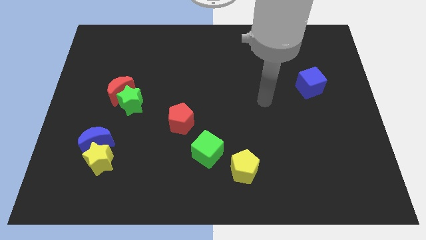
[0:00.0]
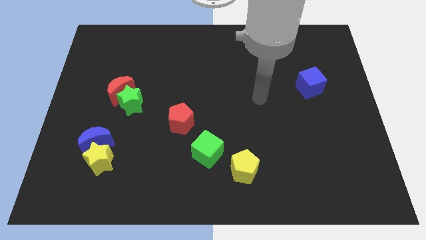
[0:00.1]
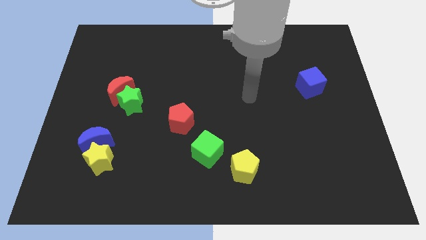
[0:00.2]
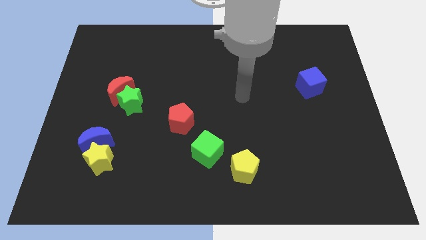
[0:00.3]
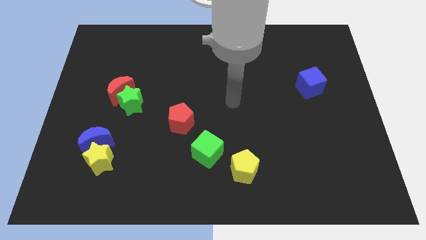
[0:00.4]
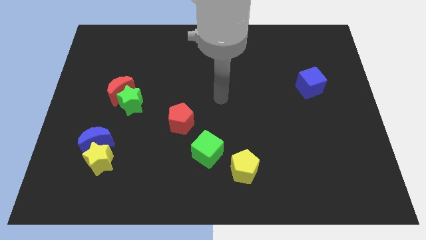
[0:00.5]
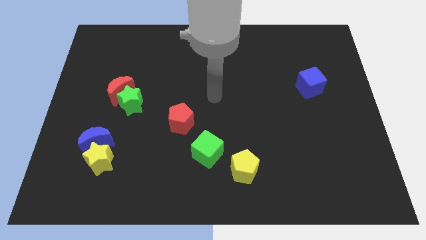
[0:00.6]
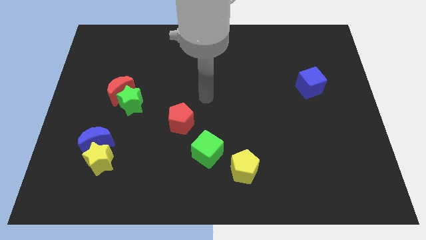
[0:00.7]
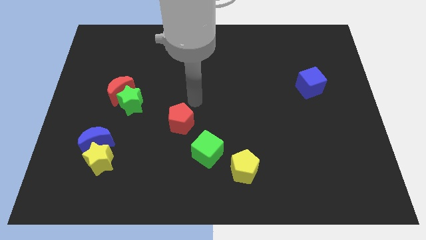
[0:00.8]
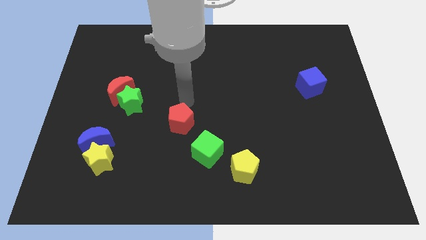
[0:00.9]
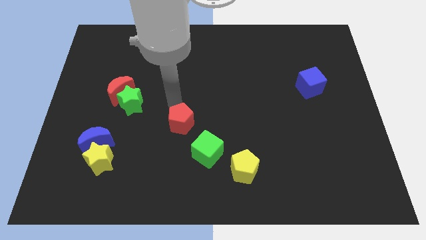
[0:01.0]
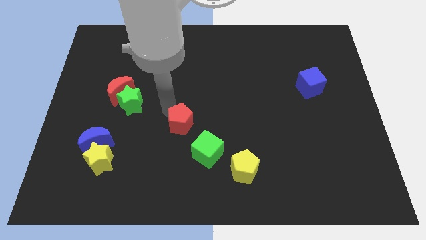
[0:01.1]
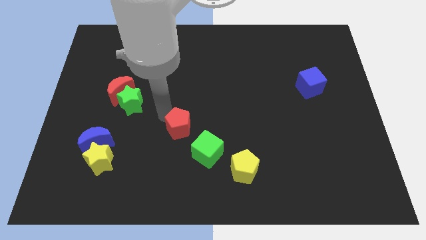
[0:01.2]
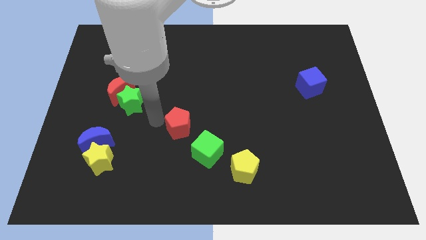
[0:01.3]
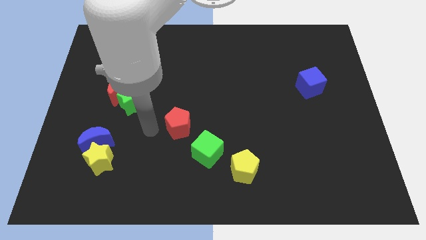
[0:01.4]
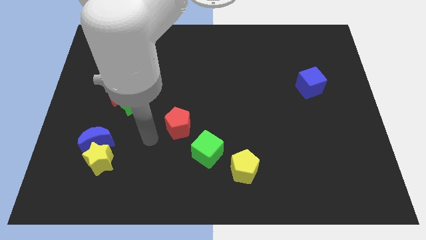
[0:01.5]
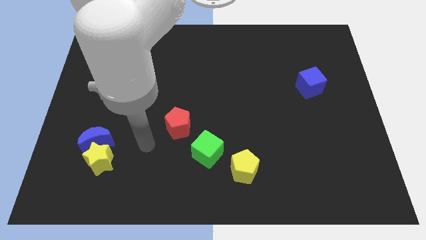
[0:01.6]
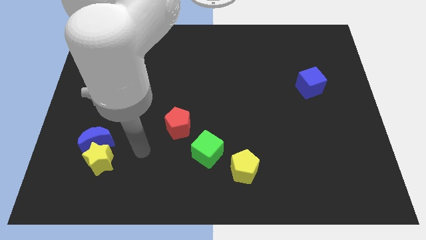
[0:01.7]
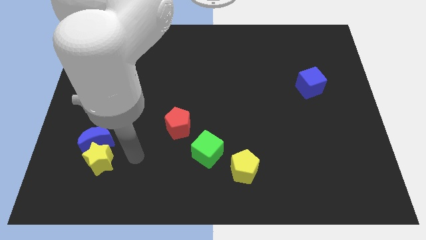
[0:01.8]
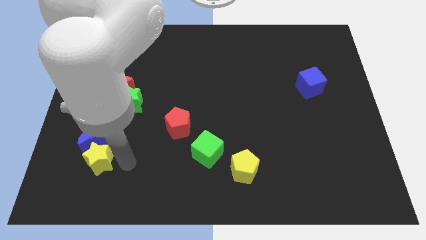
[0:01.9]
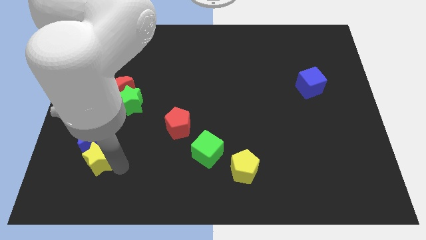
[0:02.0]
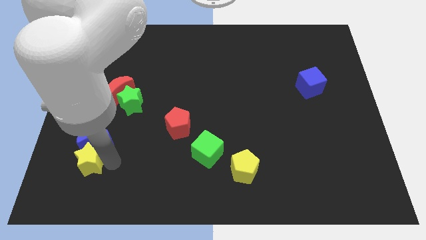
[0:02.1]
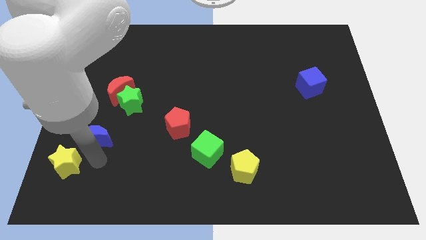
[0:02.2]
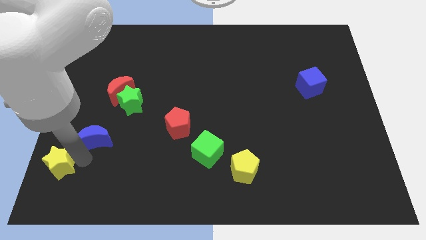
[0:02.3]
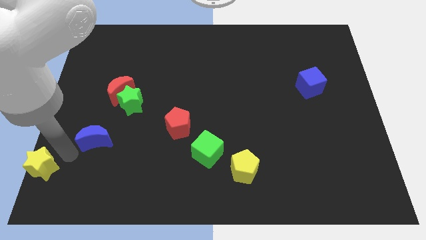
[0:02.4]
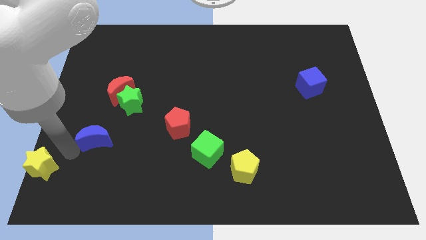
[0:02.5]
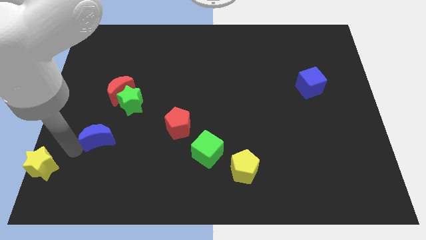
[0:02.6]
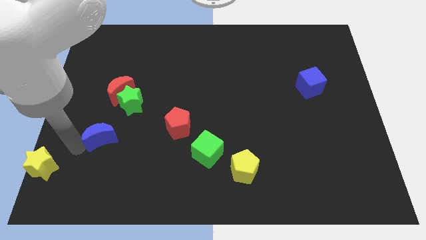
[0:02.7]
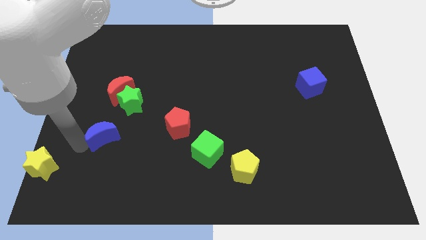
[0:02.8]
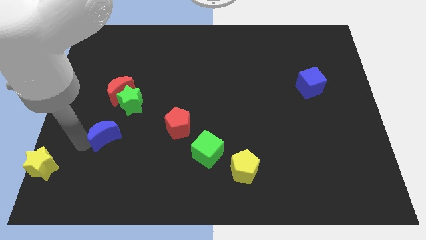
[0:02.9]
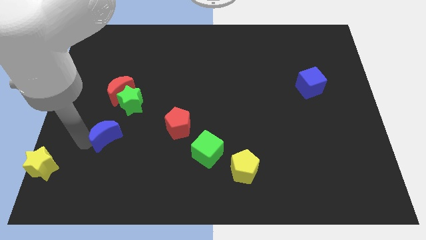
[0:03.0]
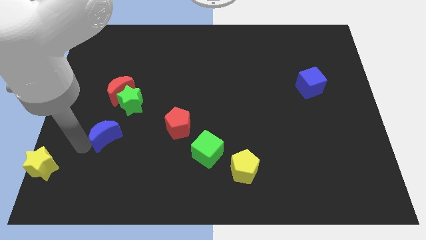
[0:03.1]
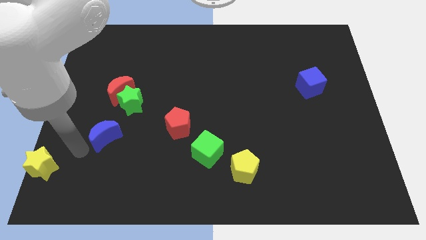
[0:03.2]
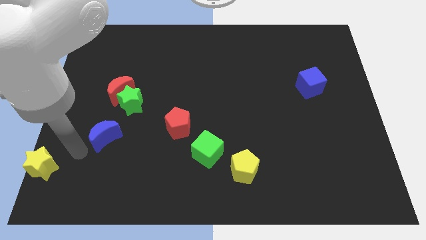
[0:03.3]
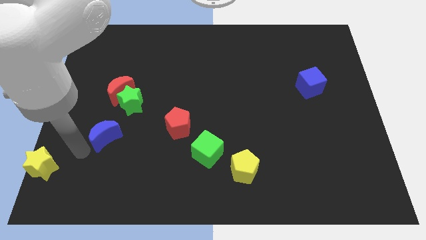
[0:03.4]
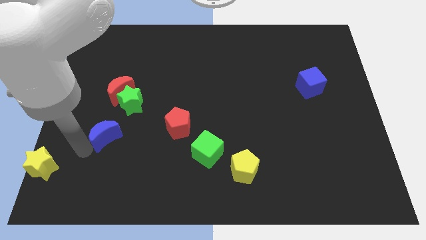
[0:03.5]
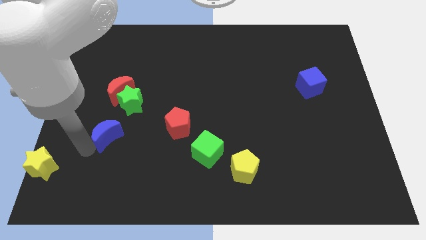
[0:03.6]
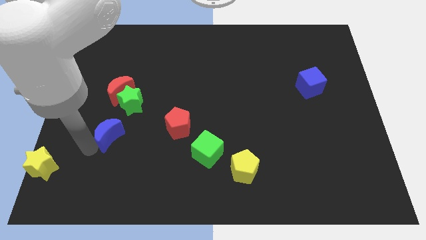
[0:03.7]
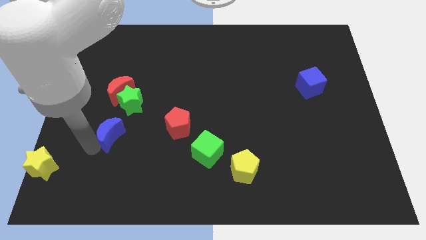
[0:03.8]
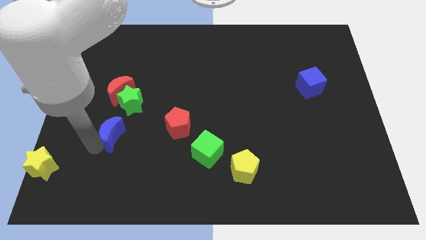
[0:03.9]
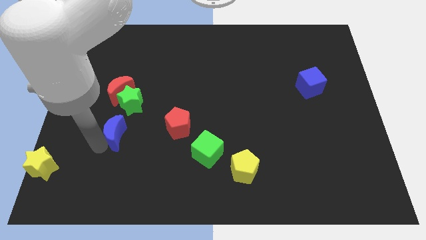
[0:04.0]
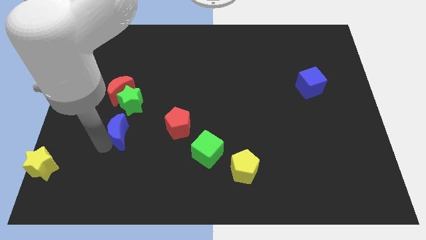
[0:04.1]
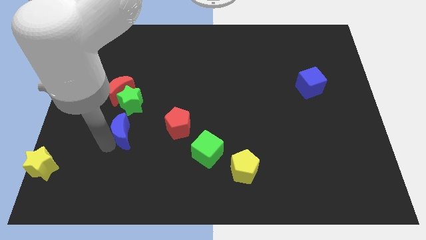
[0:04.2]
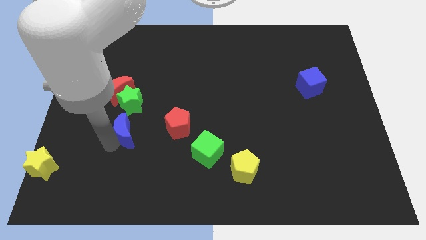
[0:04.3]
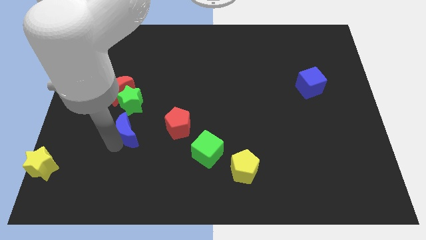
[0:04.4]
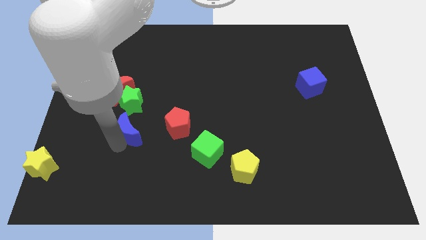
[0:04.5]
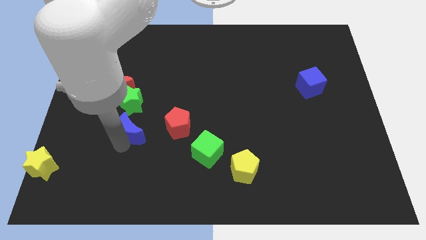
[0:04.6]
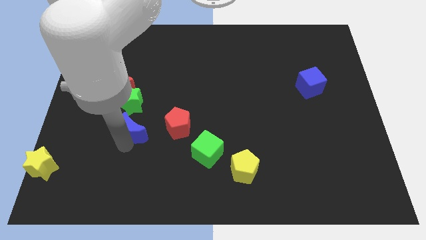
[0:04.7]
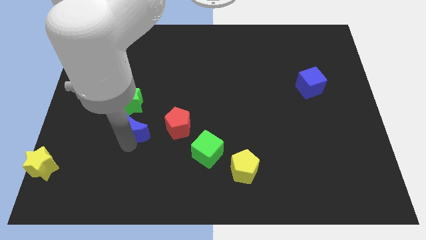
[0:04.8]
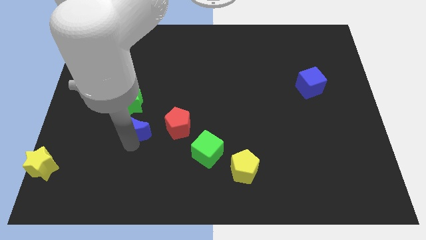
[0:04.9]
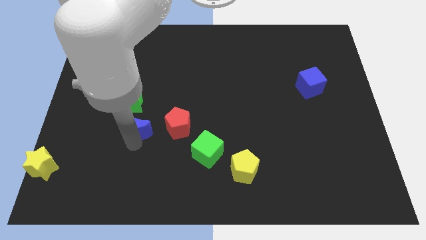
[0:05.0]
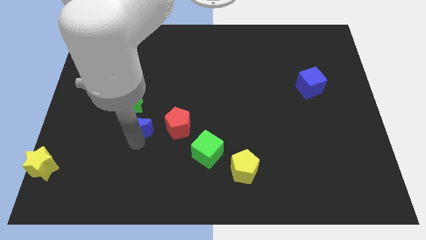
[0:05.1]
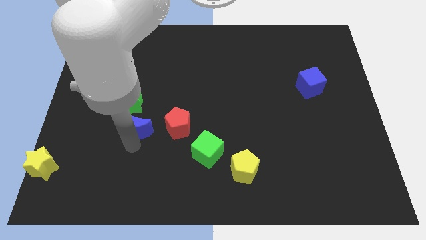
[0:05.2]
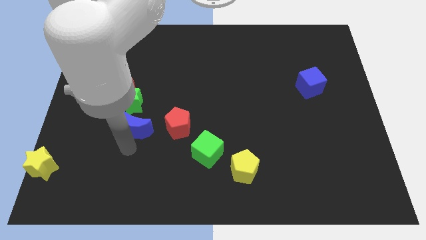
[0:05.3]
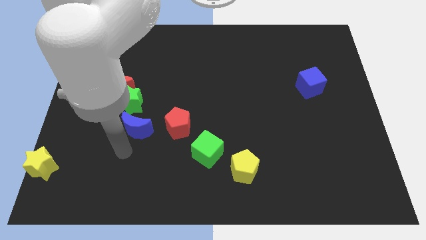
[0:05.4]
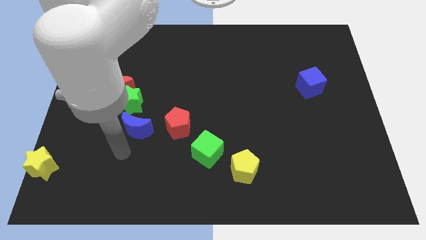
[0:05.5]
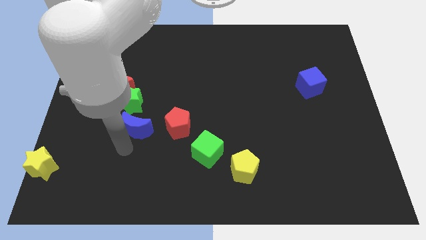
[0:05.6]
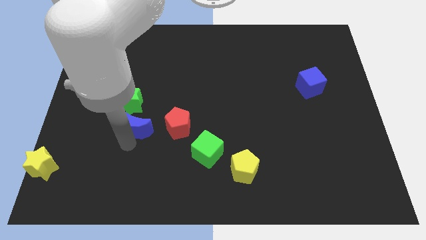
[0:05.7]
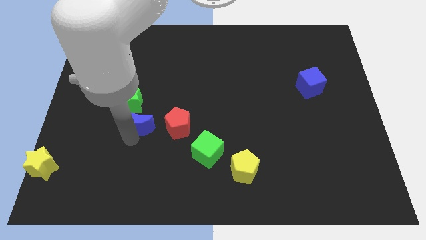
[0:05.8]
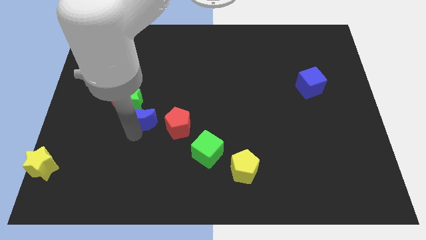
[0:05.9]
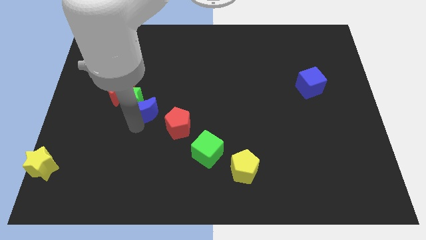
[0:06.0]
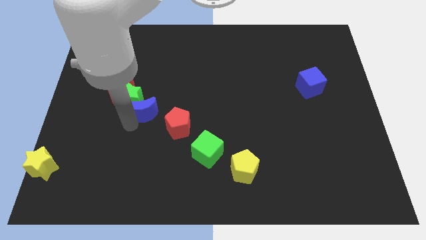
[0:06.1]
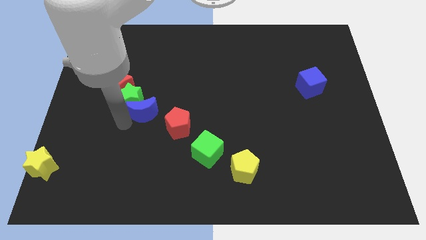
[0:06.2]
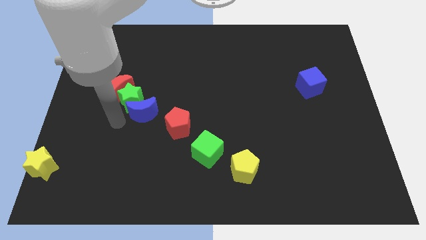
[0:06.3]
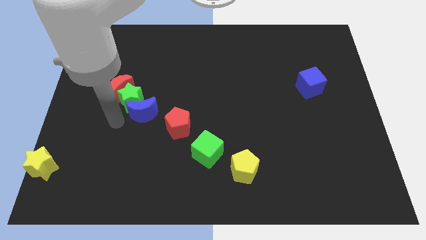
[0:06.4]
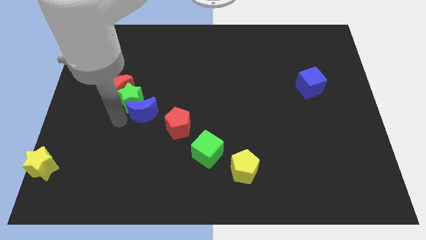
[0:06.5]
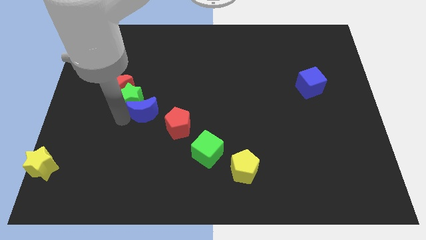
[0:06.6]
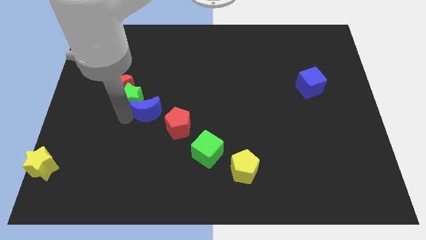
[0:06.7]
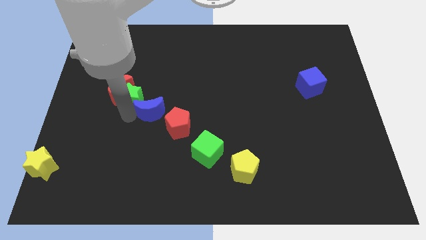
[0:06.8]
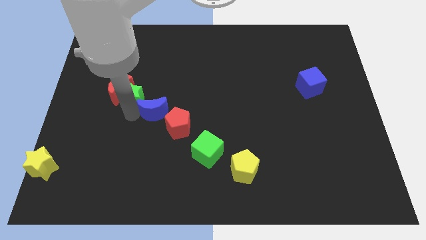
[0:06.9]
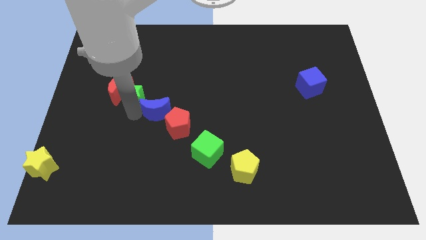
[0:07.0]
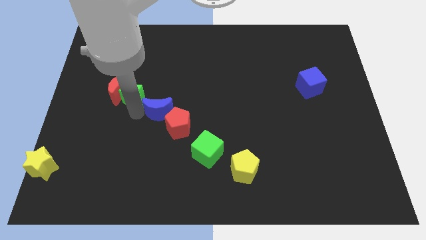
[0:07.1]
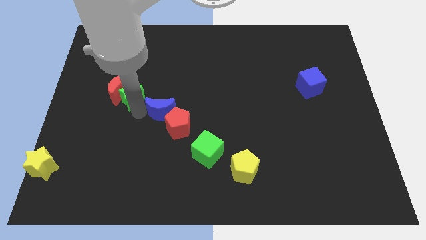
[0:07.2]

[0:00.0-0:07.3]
push the blue moon to the middle
